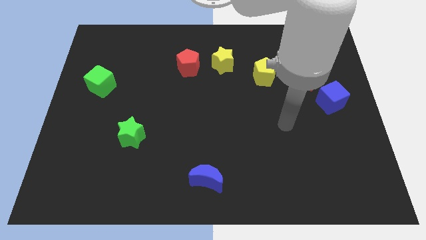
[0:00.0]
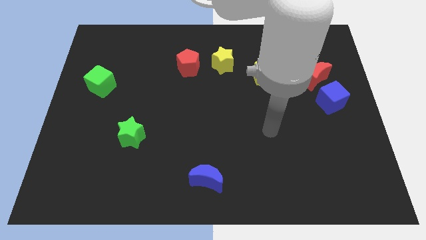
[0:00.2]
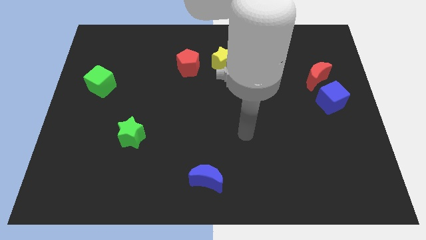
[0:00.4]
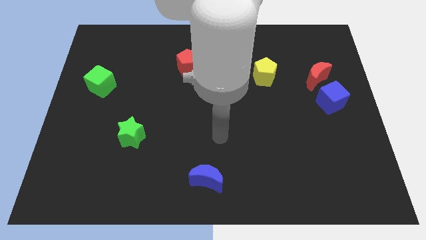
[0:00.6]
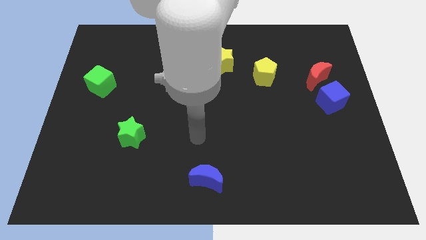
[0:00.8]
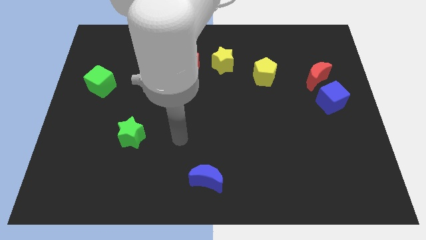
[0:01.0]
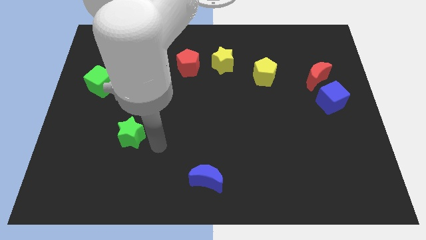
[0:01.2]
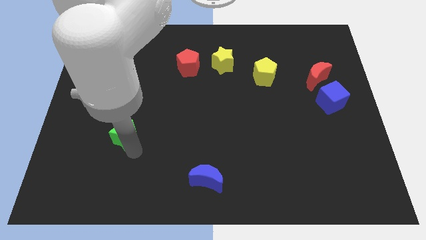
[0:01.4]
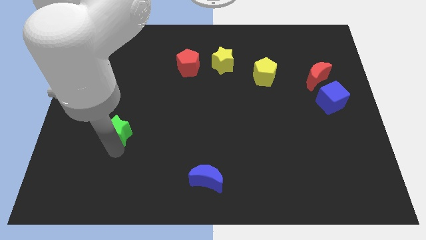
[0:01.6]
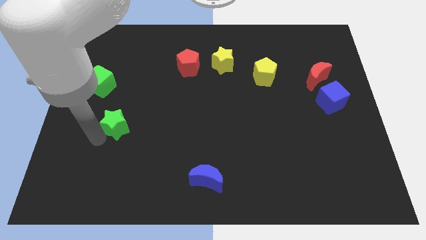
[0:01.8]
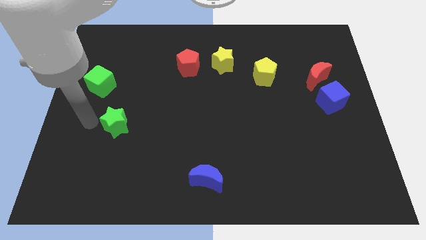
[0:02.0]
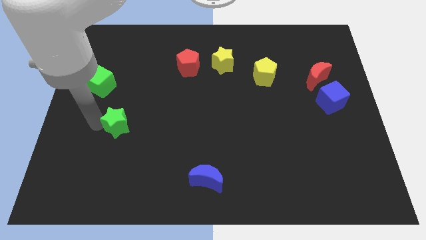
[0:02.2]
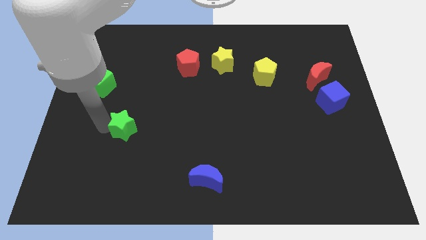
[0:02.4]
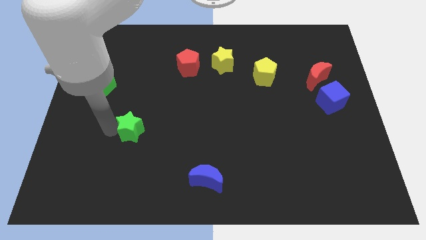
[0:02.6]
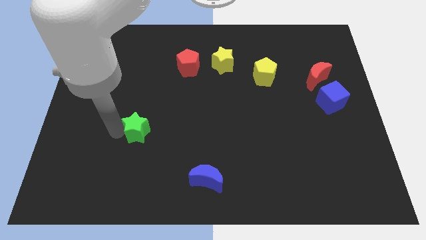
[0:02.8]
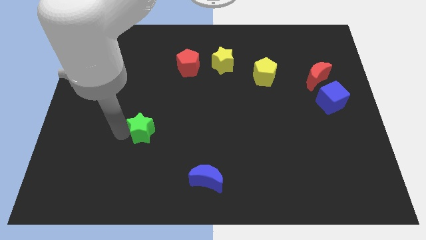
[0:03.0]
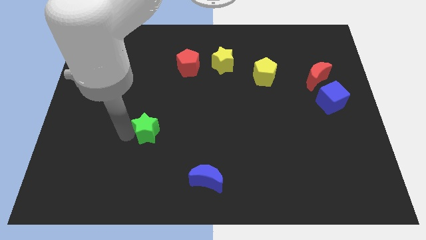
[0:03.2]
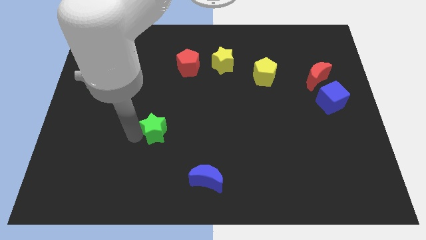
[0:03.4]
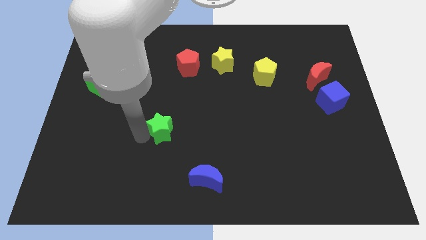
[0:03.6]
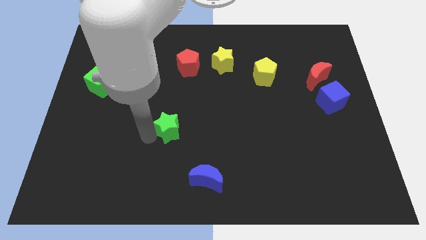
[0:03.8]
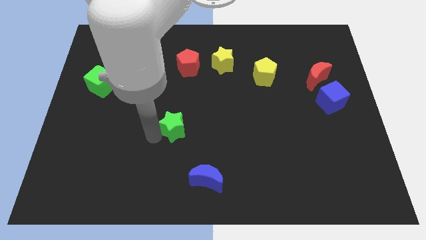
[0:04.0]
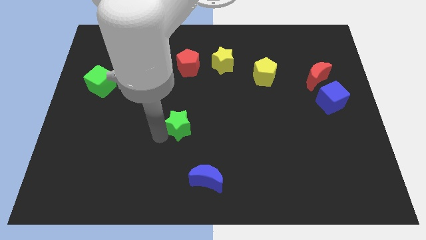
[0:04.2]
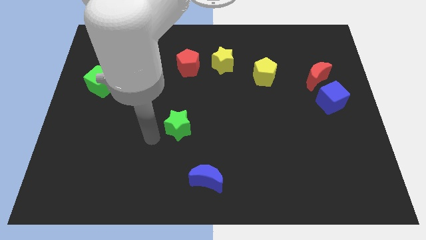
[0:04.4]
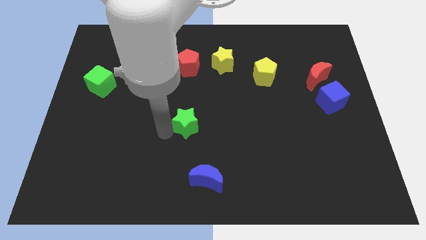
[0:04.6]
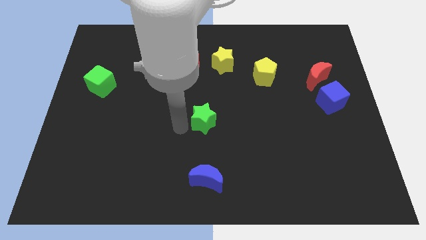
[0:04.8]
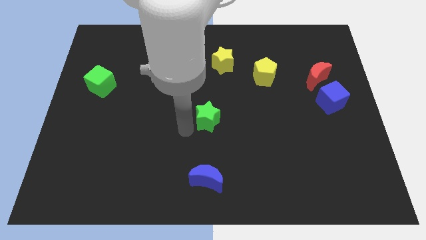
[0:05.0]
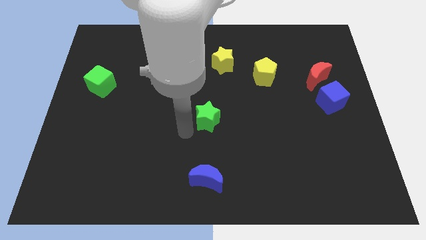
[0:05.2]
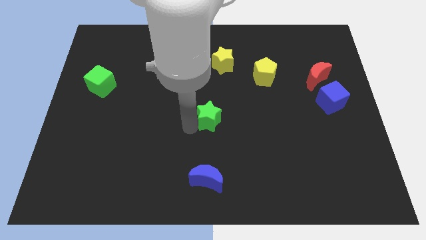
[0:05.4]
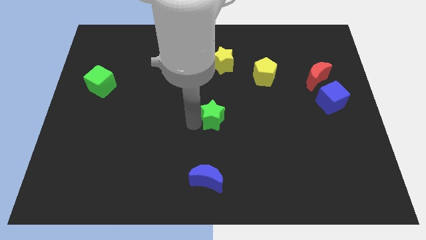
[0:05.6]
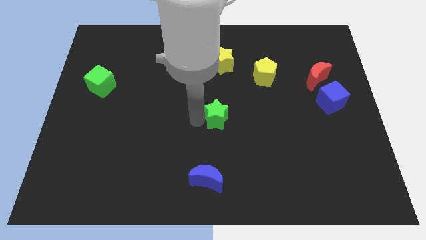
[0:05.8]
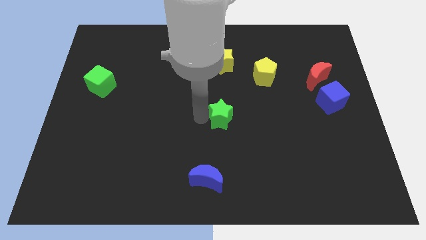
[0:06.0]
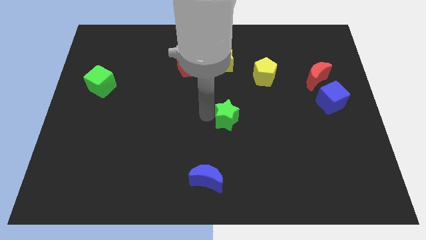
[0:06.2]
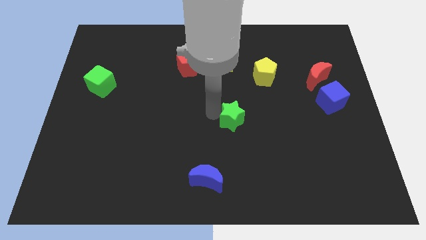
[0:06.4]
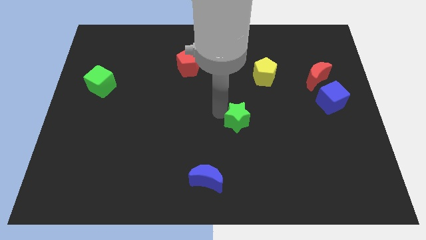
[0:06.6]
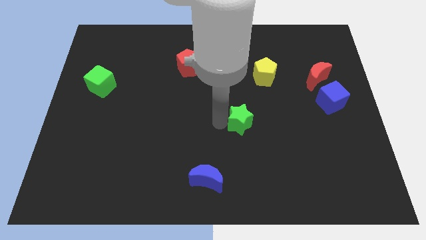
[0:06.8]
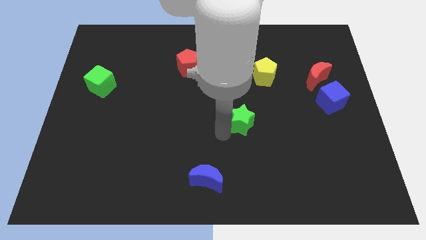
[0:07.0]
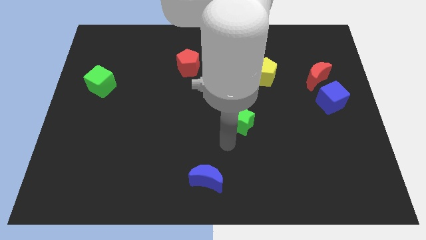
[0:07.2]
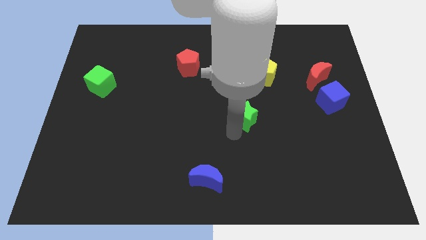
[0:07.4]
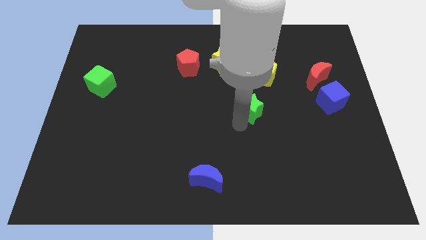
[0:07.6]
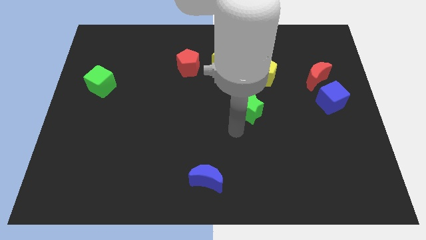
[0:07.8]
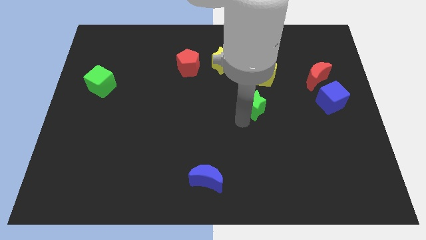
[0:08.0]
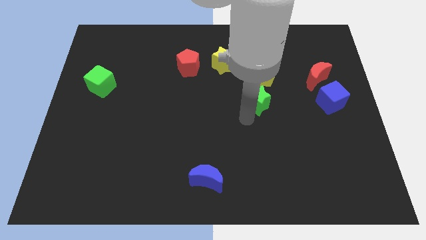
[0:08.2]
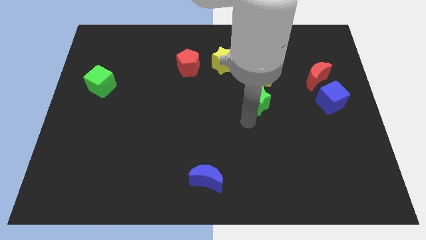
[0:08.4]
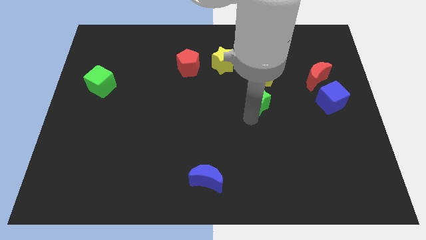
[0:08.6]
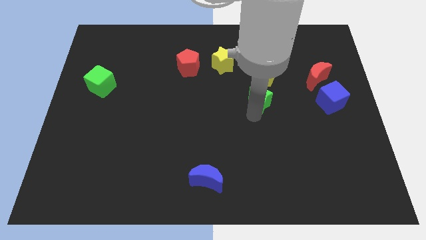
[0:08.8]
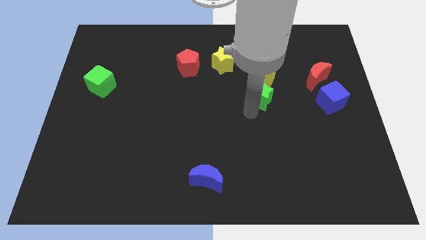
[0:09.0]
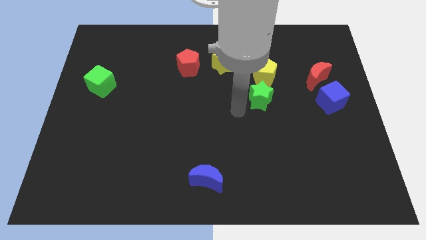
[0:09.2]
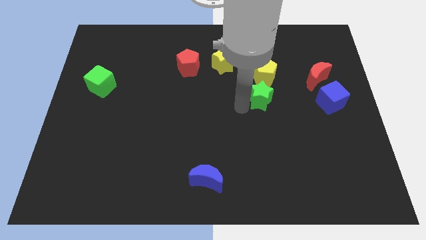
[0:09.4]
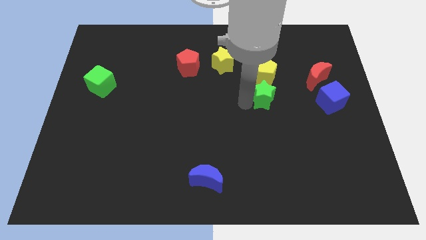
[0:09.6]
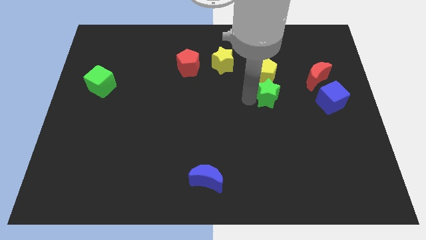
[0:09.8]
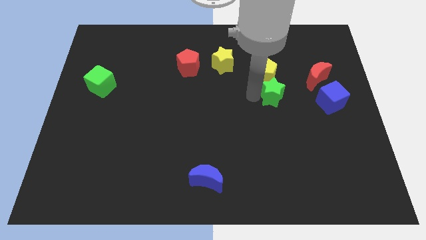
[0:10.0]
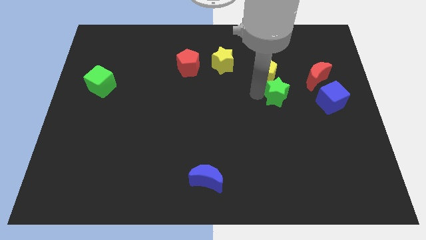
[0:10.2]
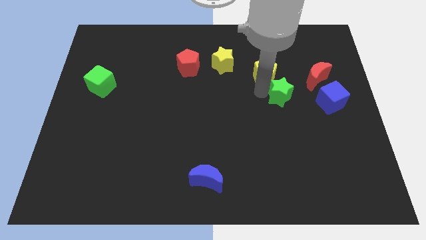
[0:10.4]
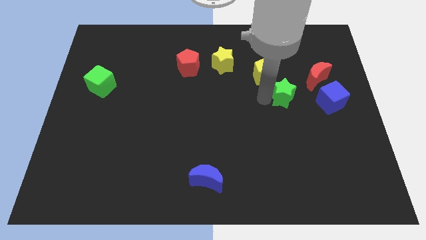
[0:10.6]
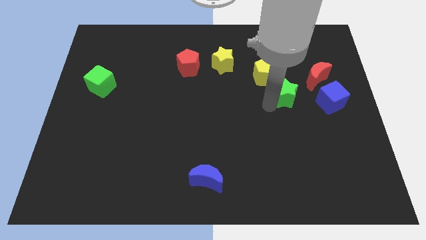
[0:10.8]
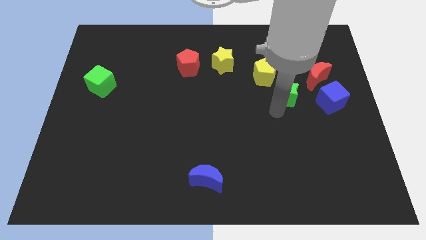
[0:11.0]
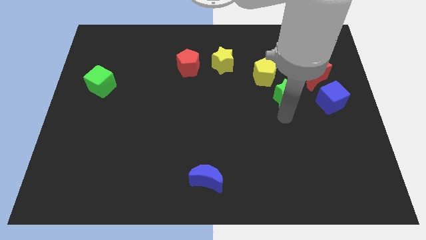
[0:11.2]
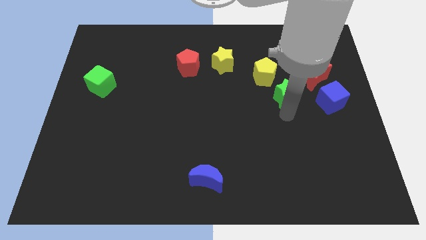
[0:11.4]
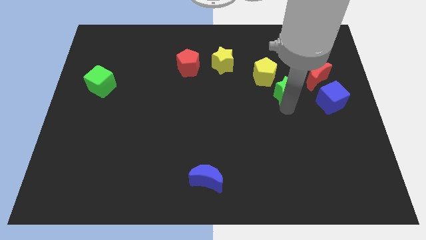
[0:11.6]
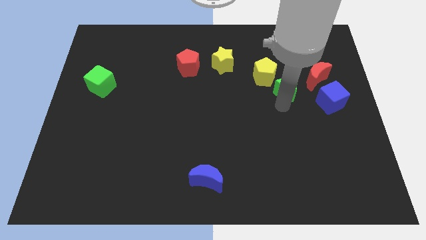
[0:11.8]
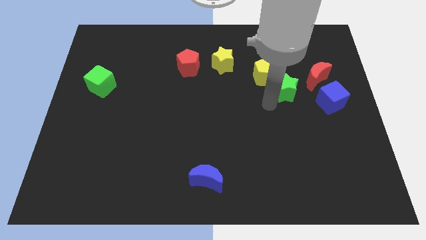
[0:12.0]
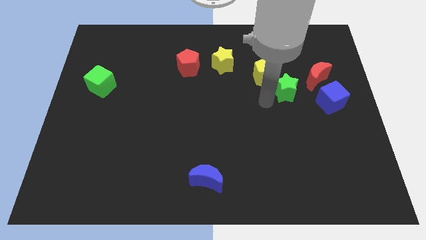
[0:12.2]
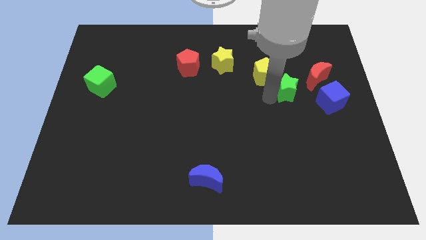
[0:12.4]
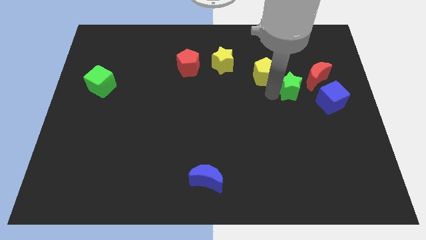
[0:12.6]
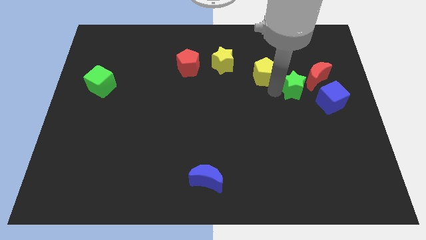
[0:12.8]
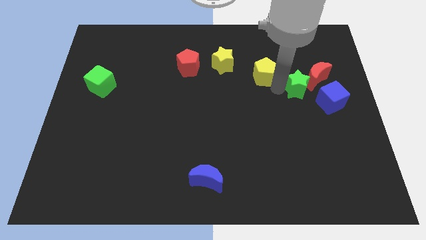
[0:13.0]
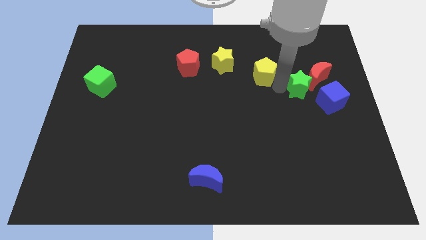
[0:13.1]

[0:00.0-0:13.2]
slide the green star towards the red moon
